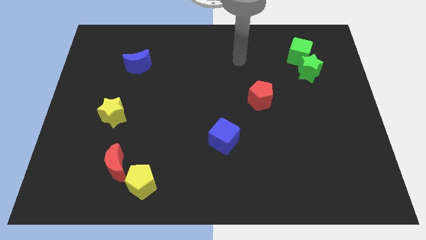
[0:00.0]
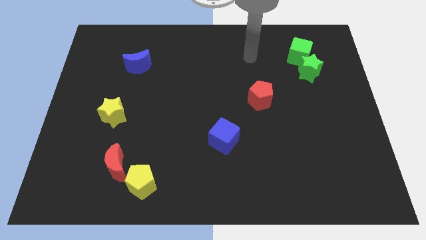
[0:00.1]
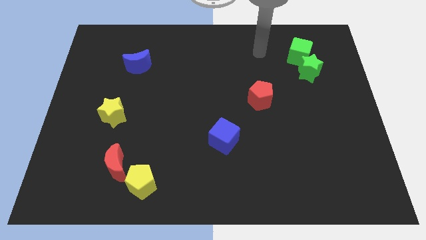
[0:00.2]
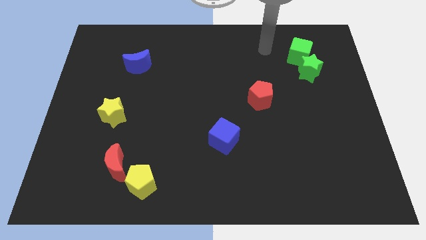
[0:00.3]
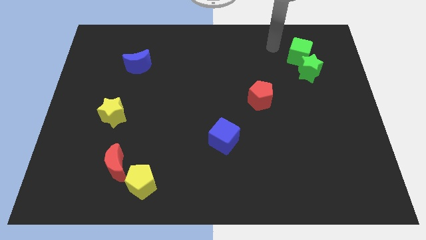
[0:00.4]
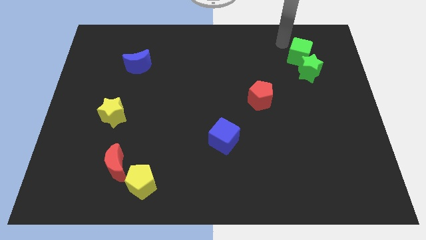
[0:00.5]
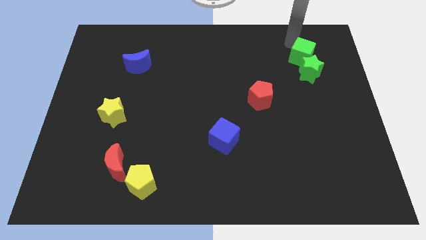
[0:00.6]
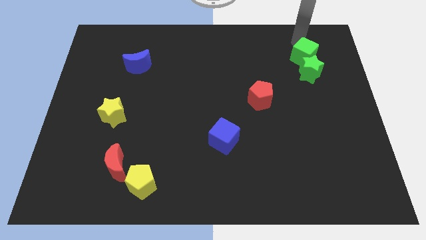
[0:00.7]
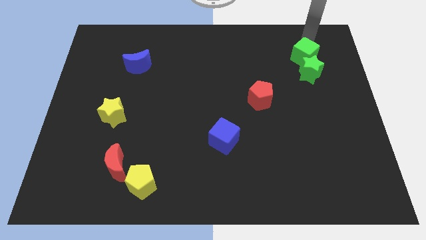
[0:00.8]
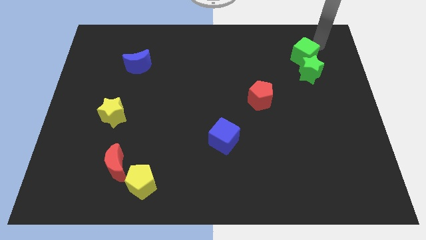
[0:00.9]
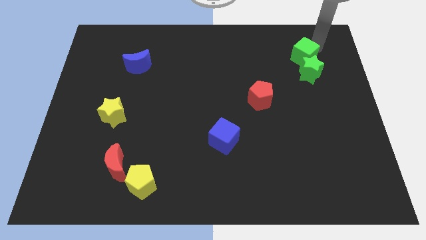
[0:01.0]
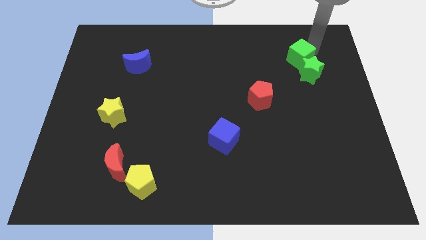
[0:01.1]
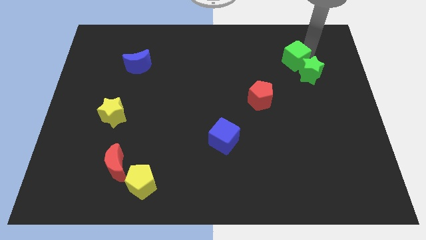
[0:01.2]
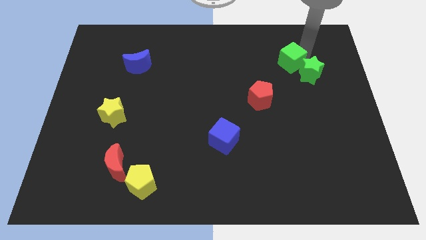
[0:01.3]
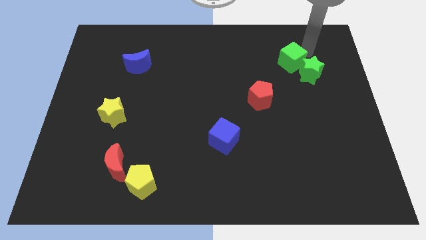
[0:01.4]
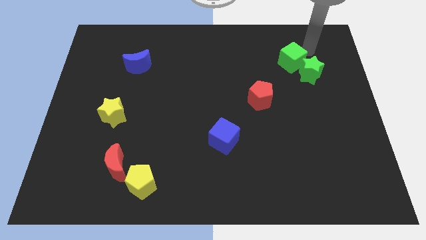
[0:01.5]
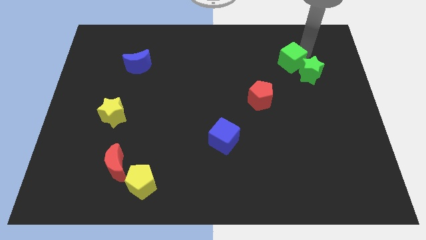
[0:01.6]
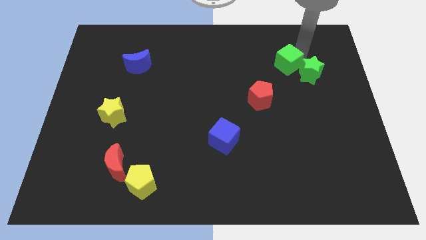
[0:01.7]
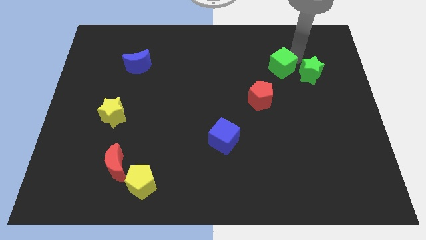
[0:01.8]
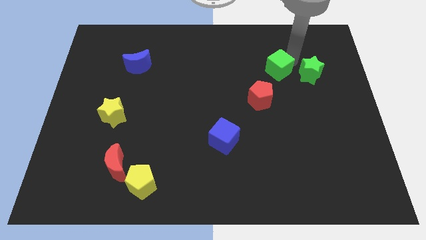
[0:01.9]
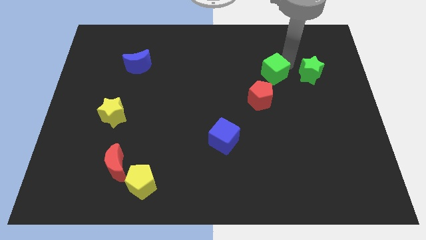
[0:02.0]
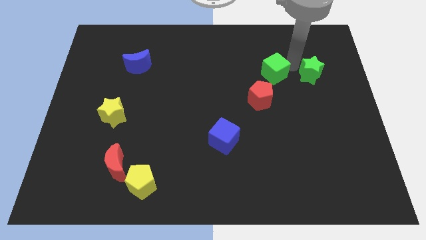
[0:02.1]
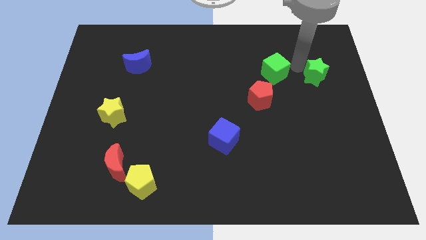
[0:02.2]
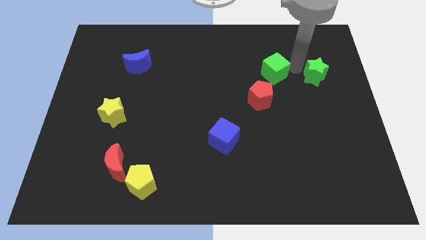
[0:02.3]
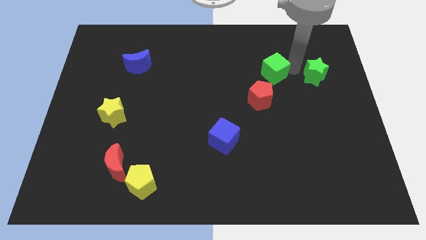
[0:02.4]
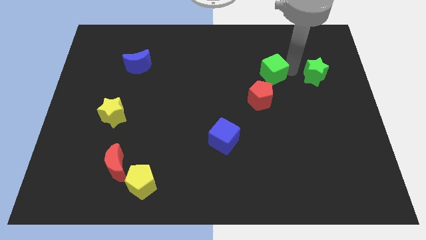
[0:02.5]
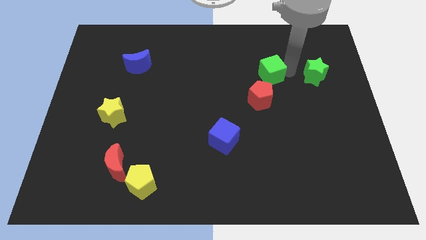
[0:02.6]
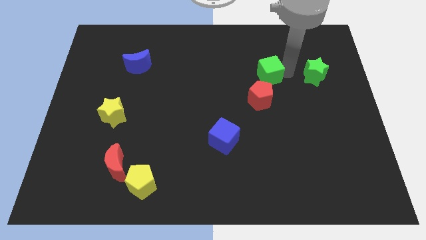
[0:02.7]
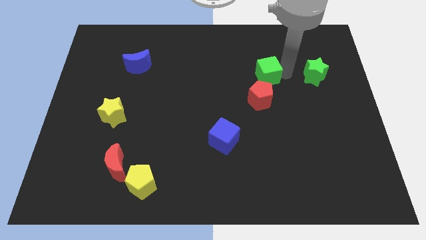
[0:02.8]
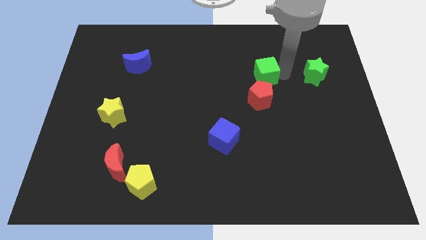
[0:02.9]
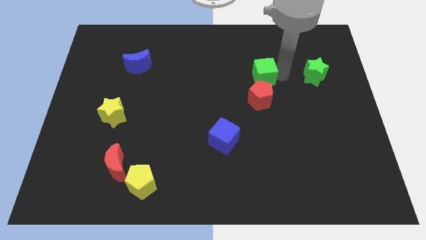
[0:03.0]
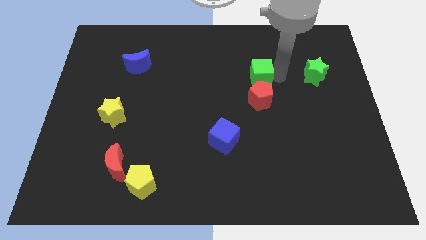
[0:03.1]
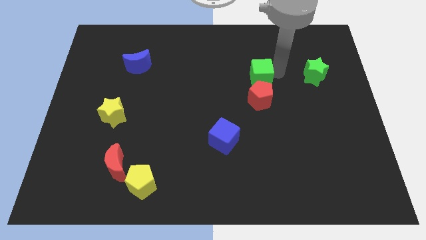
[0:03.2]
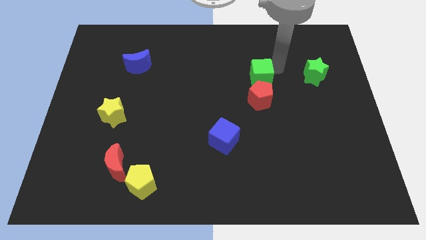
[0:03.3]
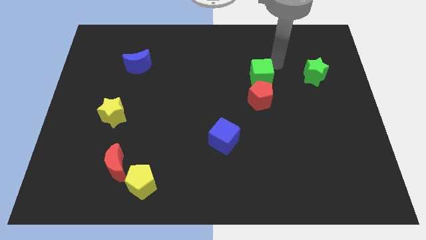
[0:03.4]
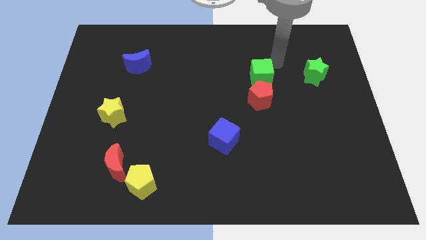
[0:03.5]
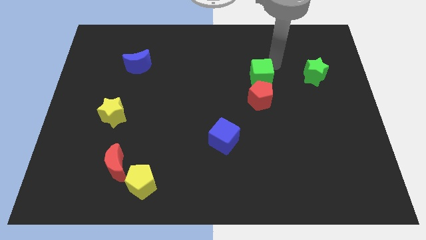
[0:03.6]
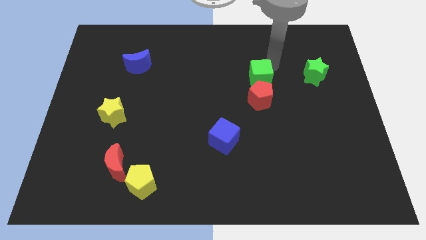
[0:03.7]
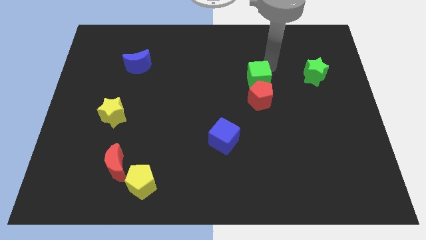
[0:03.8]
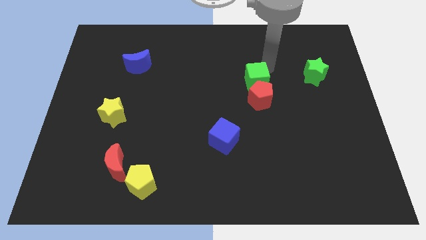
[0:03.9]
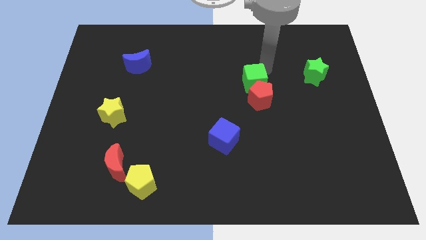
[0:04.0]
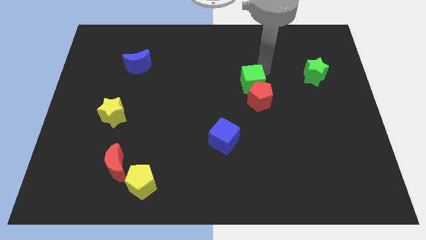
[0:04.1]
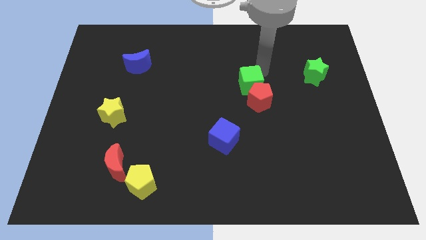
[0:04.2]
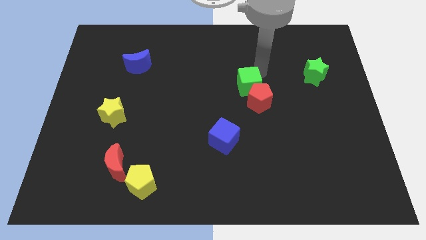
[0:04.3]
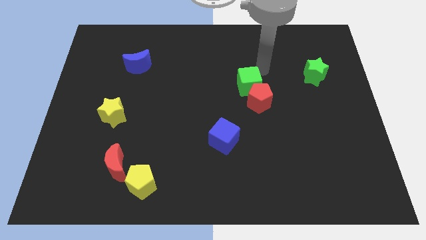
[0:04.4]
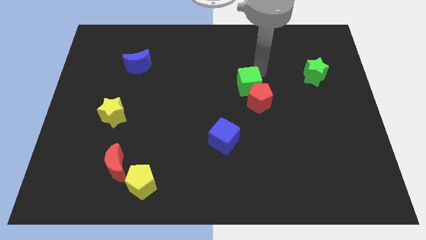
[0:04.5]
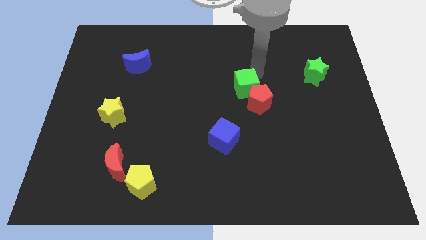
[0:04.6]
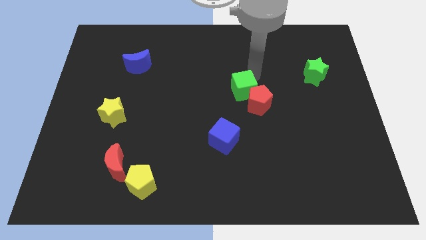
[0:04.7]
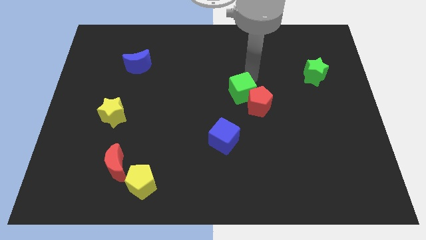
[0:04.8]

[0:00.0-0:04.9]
slide the green cube downwards and left diagonally

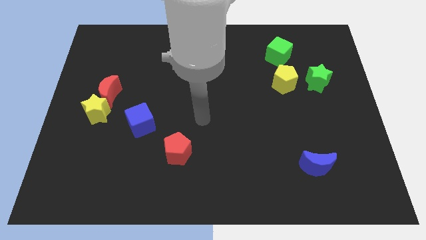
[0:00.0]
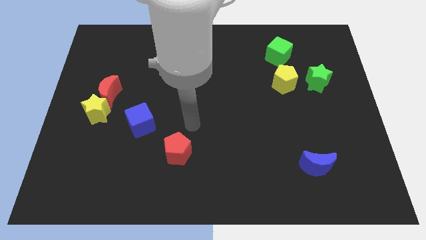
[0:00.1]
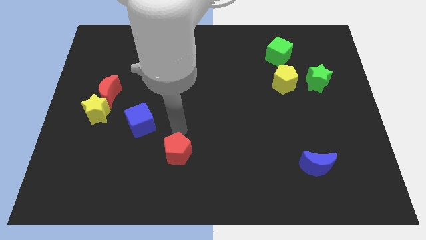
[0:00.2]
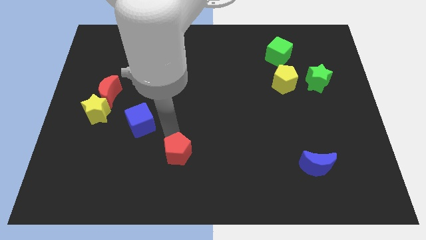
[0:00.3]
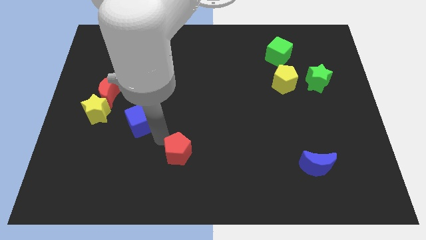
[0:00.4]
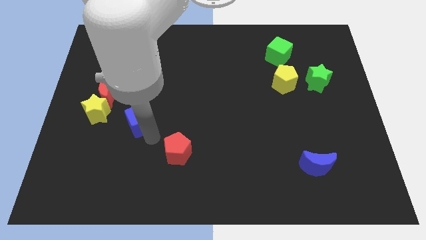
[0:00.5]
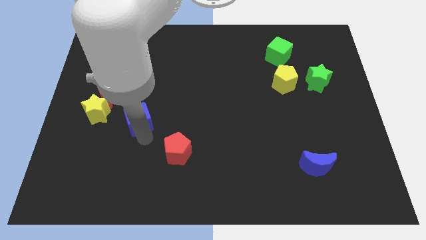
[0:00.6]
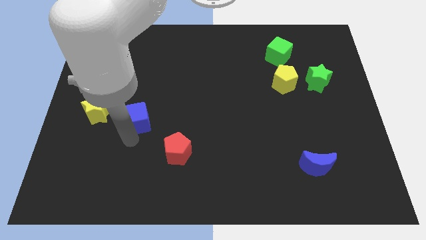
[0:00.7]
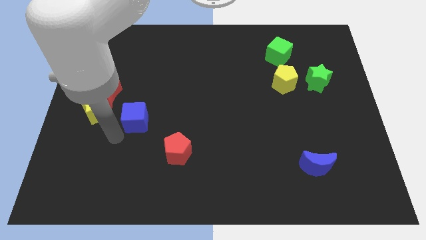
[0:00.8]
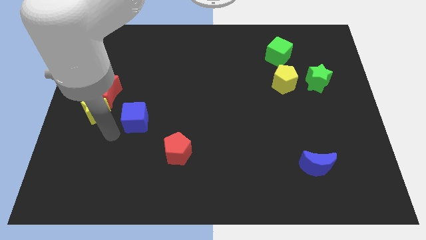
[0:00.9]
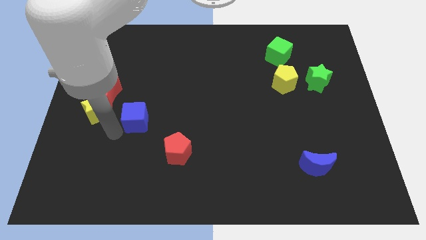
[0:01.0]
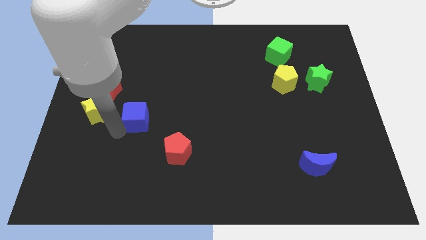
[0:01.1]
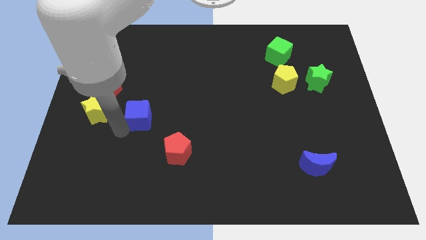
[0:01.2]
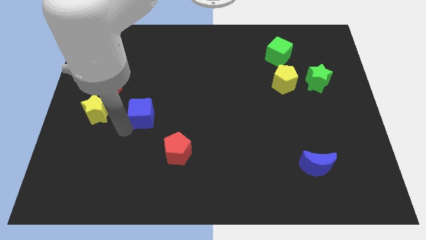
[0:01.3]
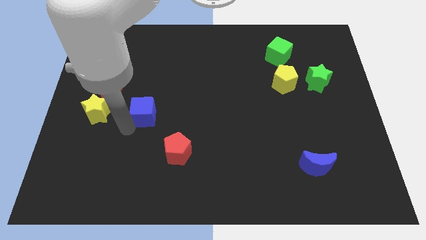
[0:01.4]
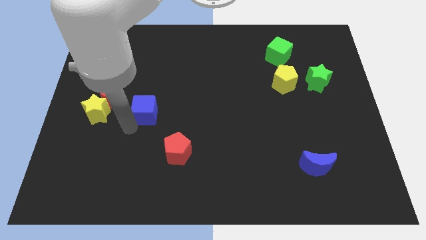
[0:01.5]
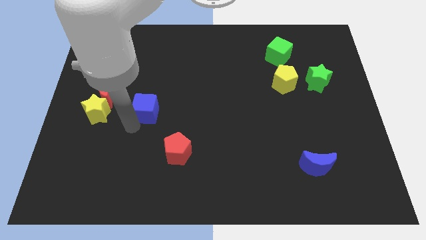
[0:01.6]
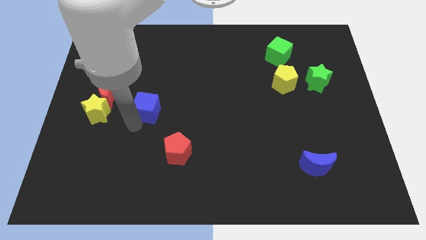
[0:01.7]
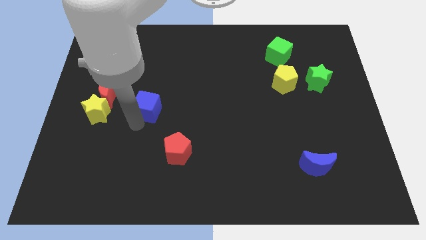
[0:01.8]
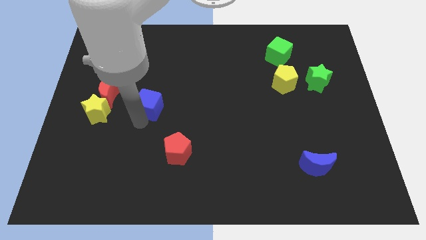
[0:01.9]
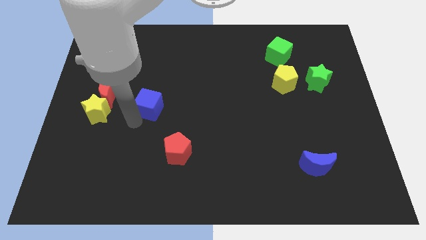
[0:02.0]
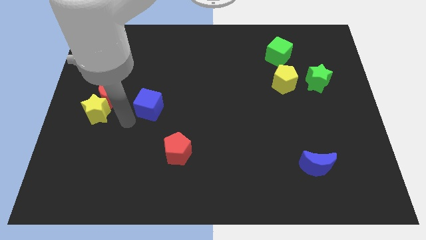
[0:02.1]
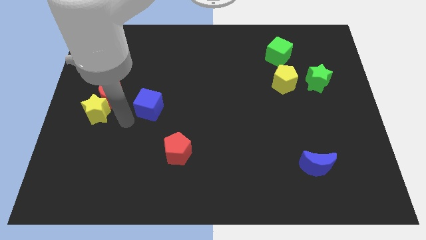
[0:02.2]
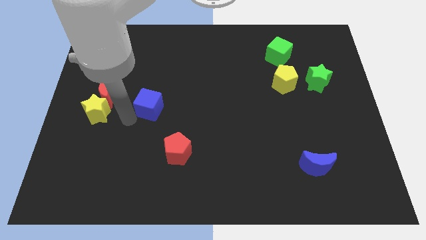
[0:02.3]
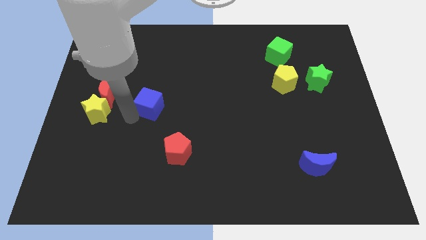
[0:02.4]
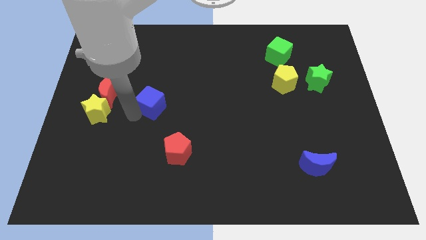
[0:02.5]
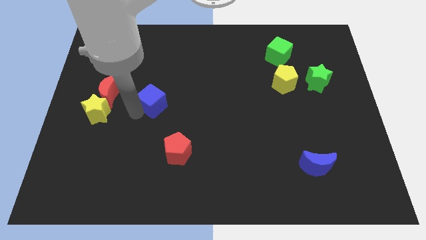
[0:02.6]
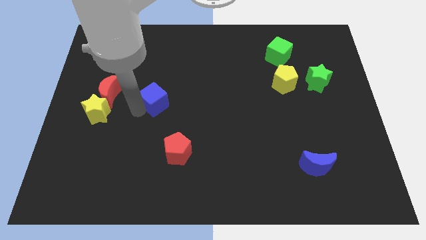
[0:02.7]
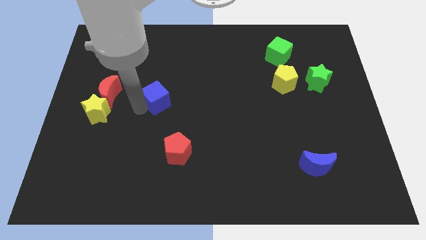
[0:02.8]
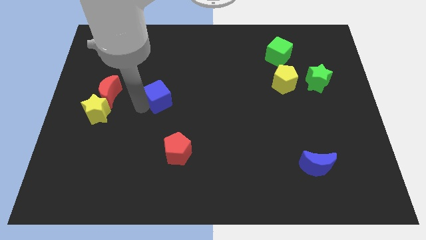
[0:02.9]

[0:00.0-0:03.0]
slightly push the blue cube diagonally up and right

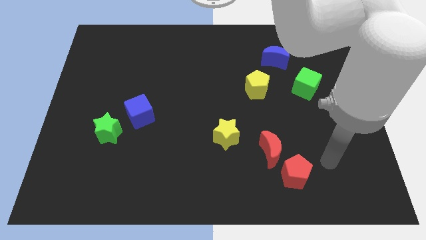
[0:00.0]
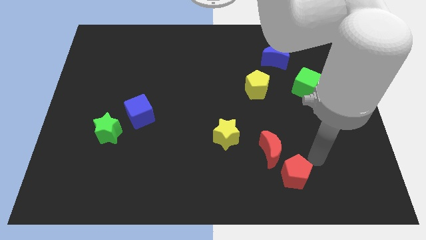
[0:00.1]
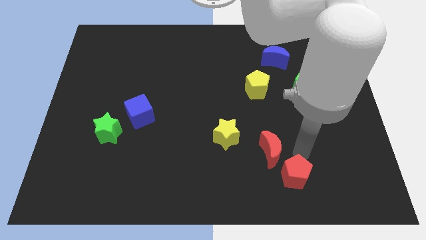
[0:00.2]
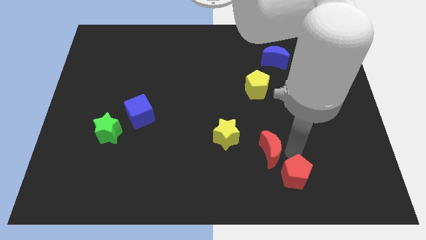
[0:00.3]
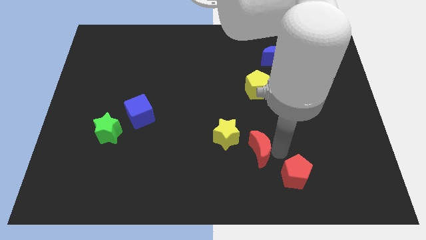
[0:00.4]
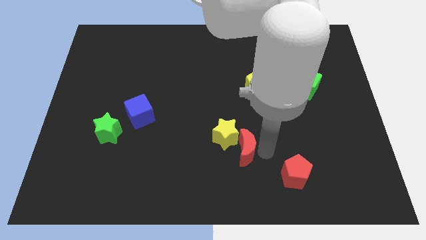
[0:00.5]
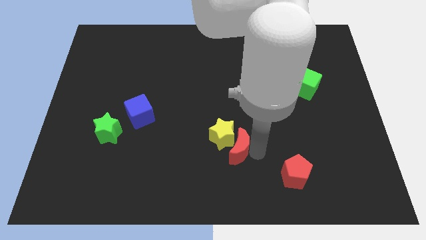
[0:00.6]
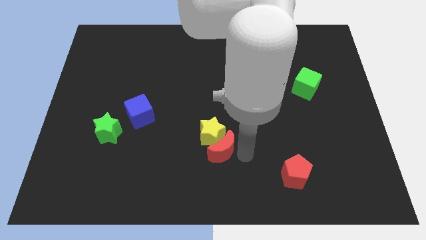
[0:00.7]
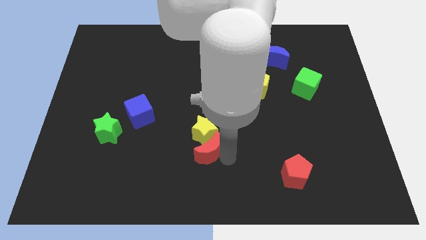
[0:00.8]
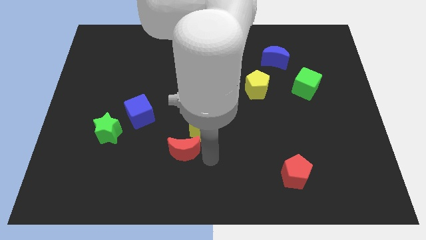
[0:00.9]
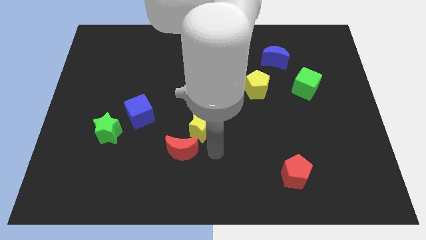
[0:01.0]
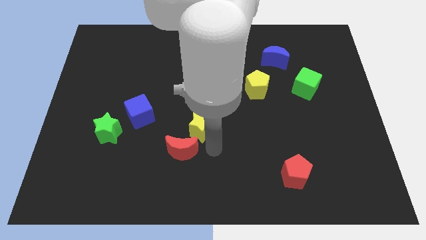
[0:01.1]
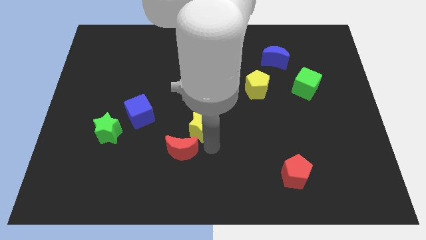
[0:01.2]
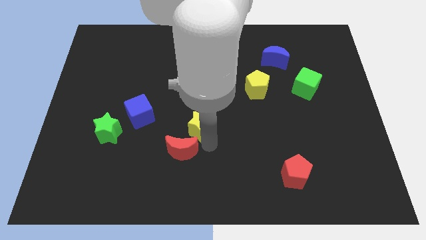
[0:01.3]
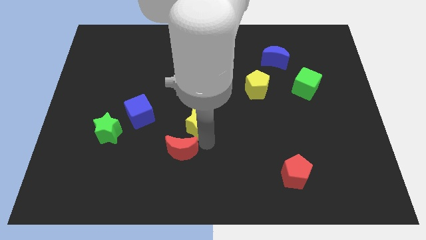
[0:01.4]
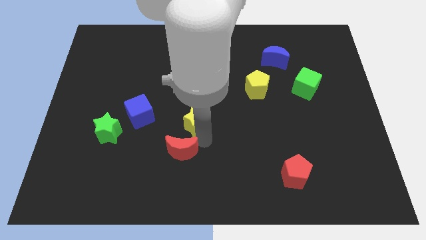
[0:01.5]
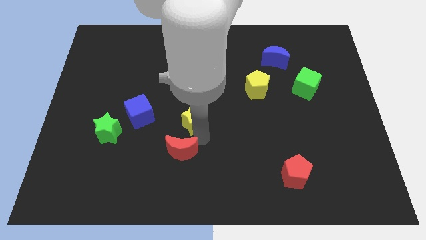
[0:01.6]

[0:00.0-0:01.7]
move the yellow star up and left a little
